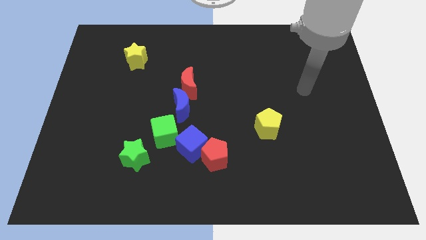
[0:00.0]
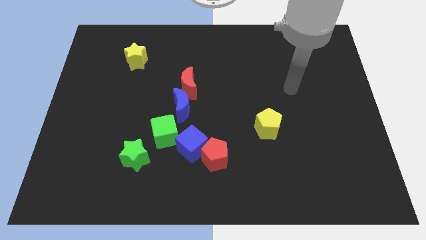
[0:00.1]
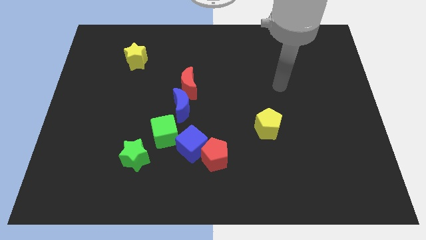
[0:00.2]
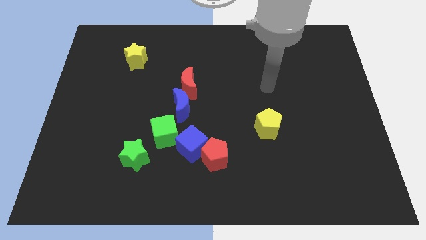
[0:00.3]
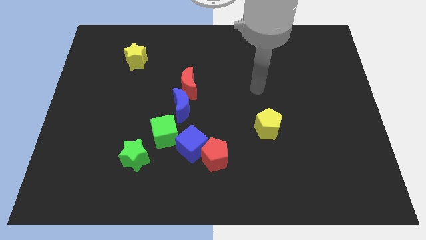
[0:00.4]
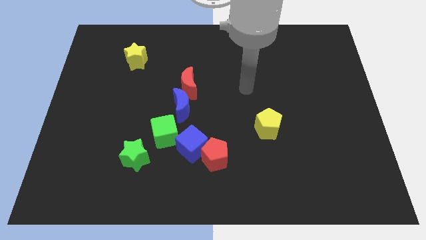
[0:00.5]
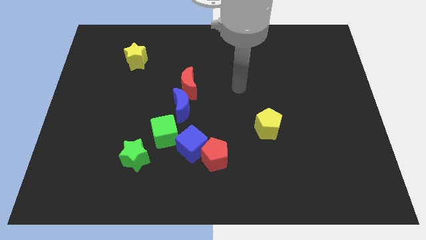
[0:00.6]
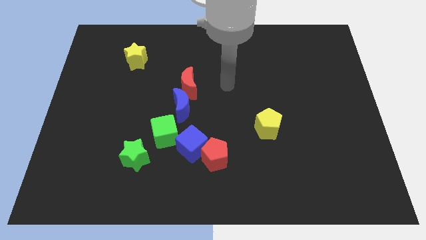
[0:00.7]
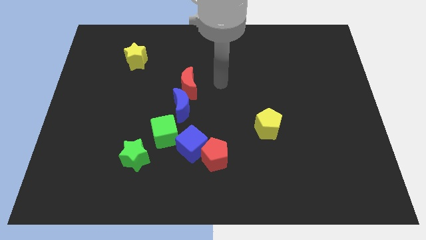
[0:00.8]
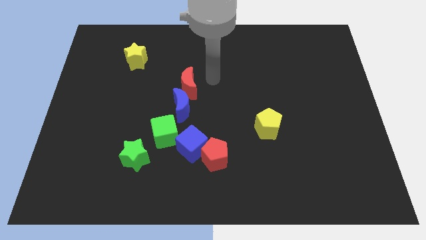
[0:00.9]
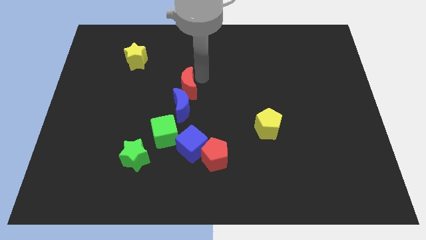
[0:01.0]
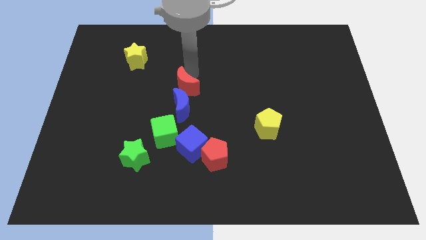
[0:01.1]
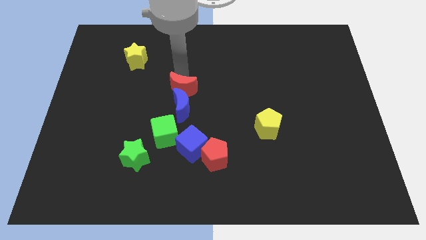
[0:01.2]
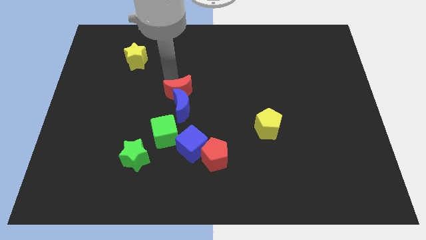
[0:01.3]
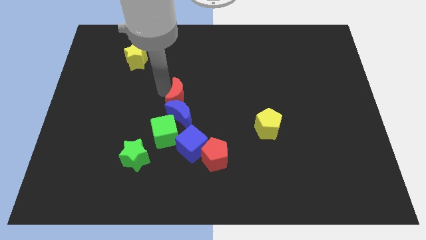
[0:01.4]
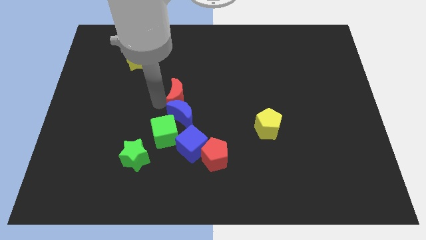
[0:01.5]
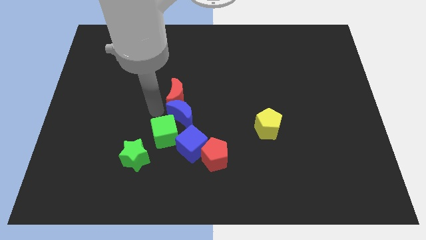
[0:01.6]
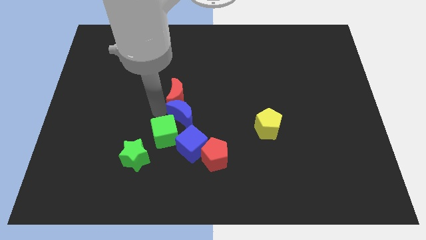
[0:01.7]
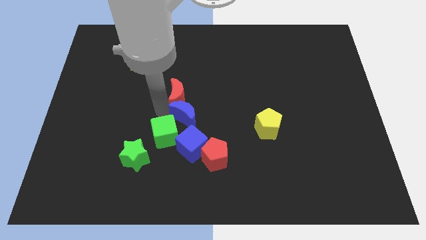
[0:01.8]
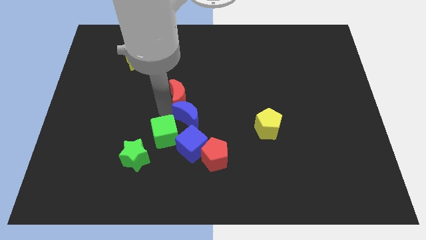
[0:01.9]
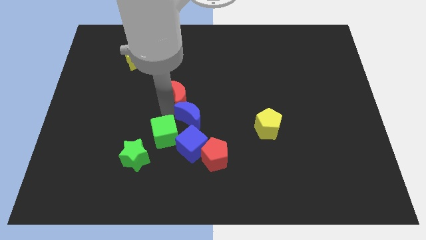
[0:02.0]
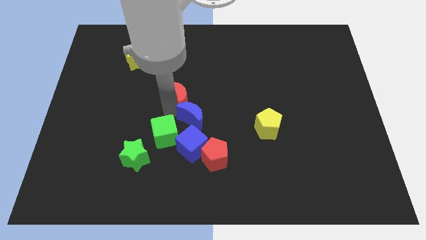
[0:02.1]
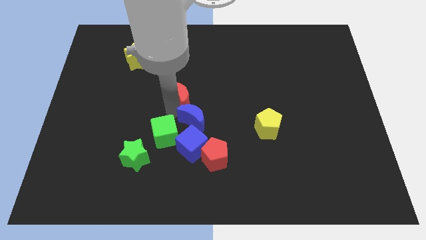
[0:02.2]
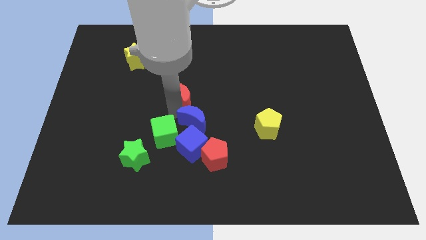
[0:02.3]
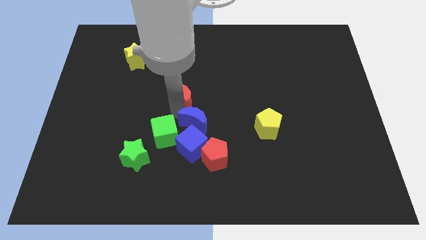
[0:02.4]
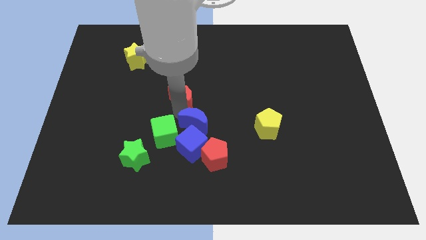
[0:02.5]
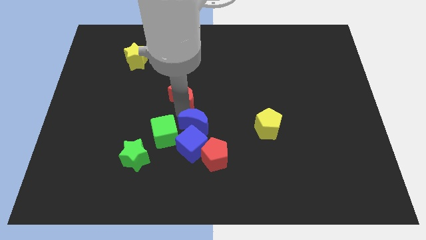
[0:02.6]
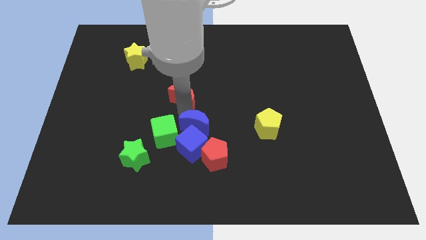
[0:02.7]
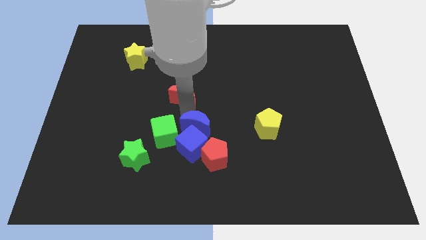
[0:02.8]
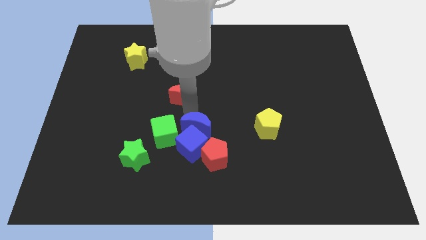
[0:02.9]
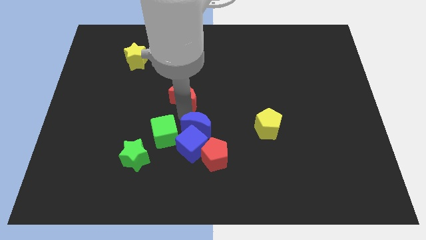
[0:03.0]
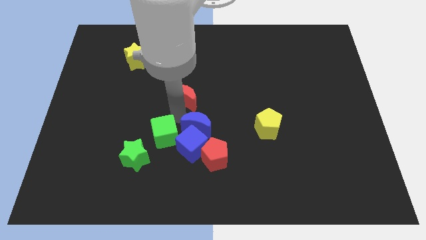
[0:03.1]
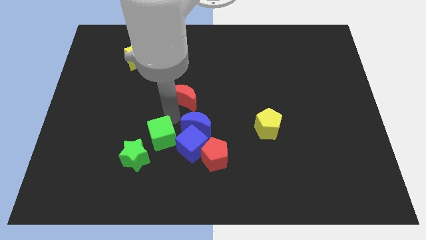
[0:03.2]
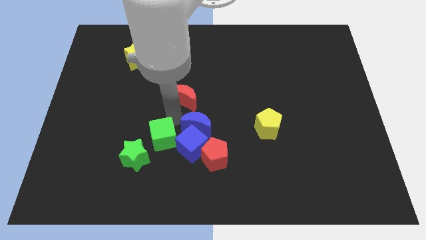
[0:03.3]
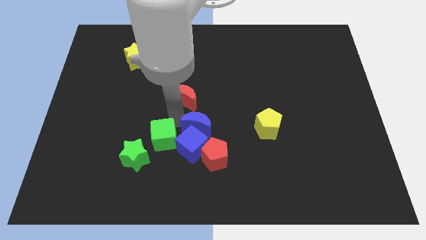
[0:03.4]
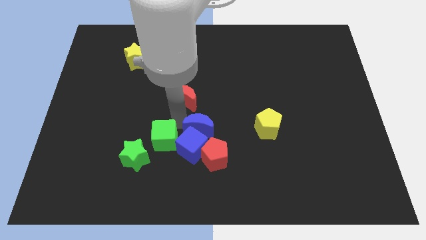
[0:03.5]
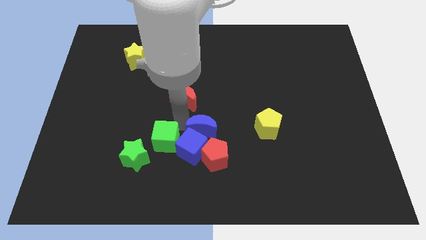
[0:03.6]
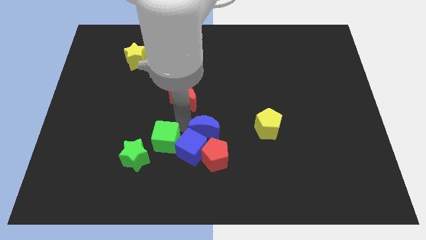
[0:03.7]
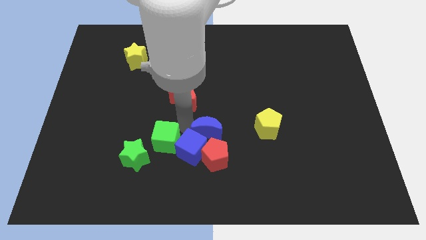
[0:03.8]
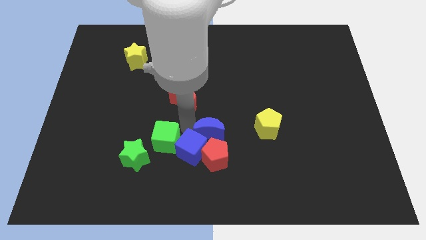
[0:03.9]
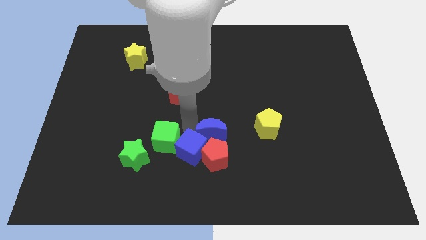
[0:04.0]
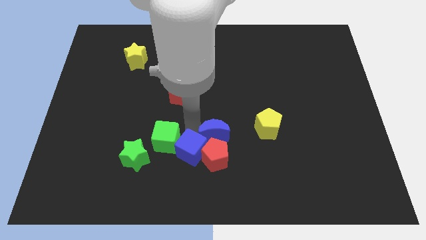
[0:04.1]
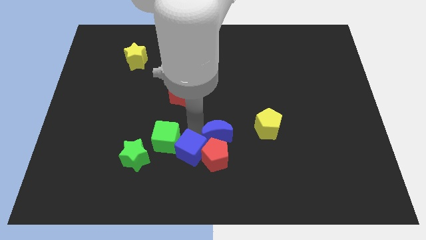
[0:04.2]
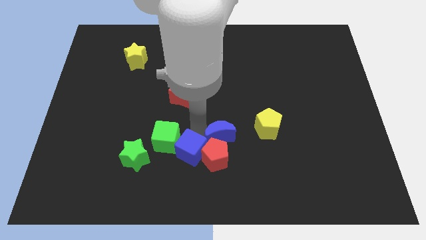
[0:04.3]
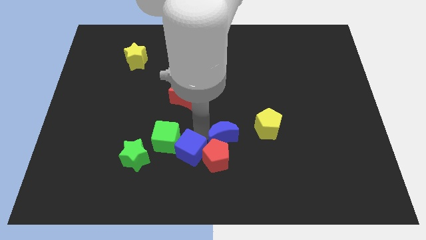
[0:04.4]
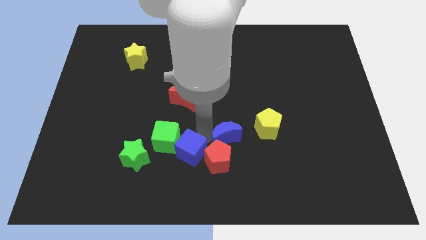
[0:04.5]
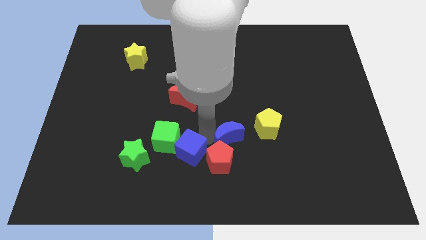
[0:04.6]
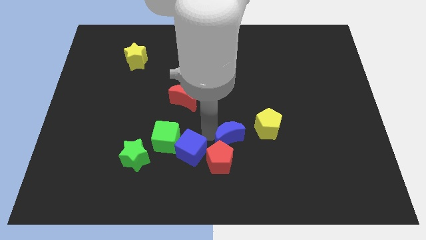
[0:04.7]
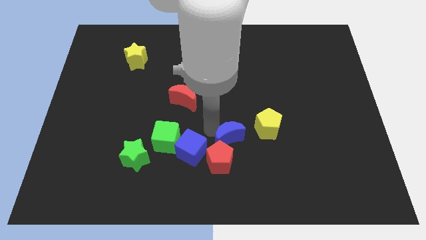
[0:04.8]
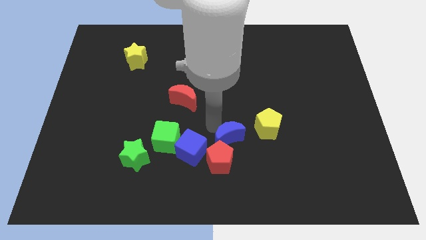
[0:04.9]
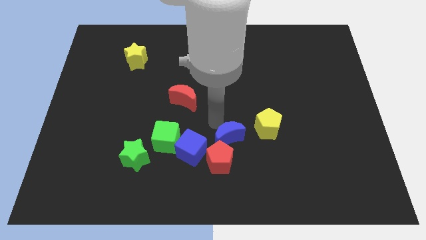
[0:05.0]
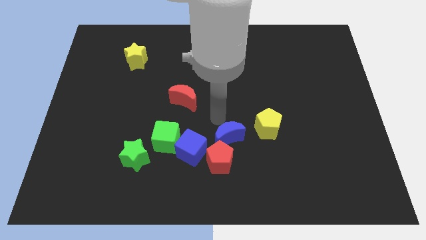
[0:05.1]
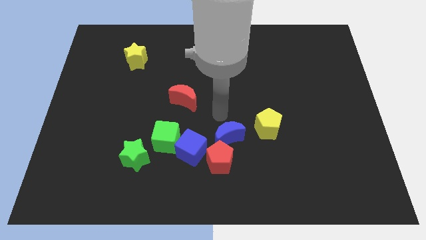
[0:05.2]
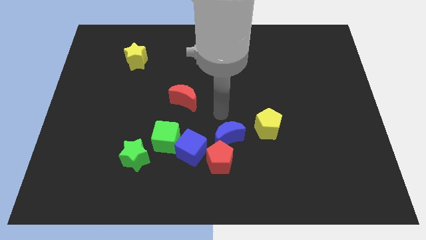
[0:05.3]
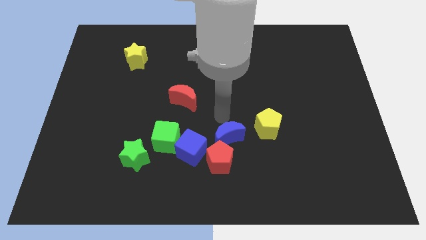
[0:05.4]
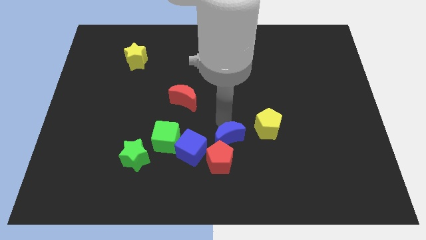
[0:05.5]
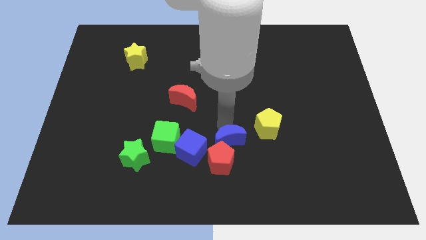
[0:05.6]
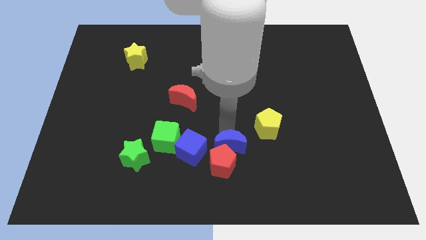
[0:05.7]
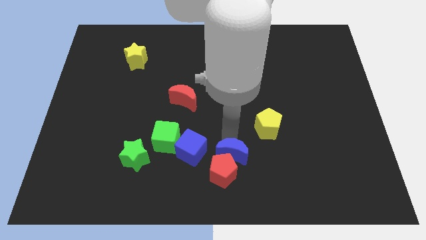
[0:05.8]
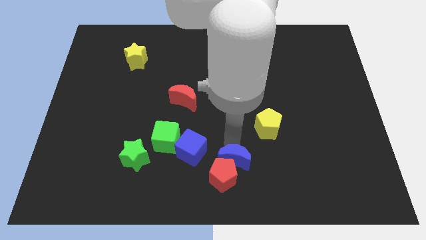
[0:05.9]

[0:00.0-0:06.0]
slide the blue moon to the bottom side

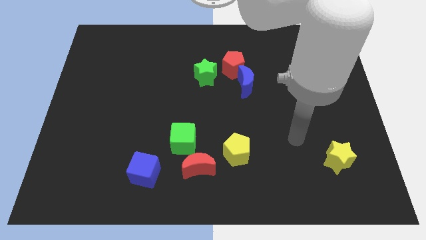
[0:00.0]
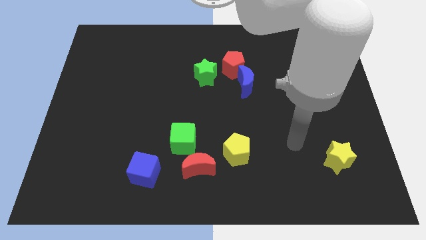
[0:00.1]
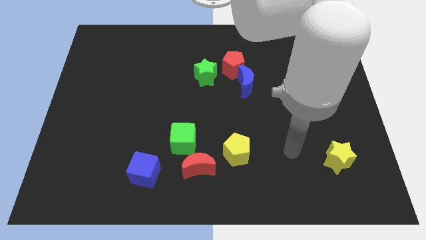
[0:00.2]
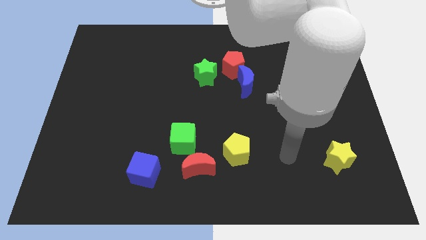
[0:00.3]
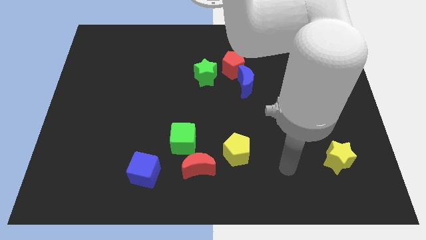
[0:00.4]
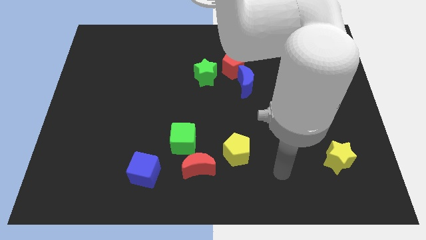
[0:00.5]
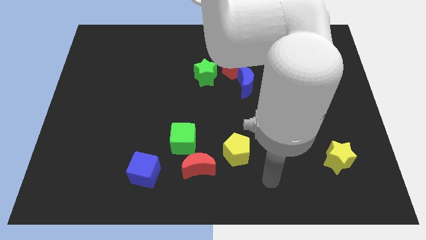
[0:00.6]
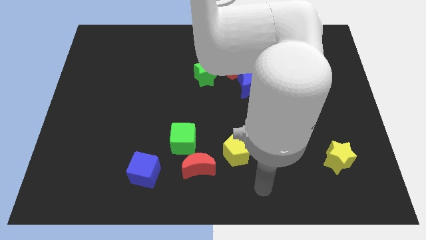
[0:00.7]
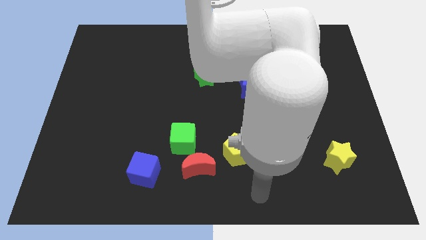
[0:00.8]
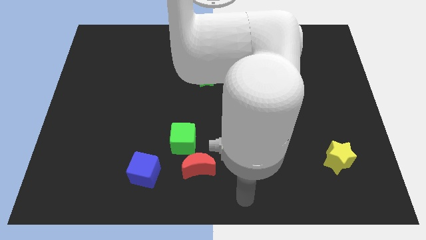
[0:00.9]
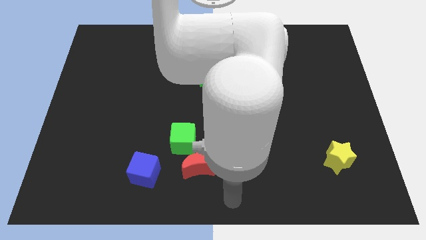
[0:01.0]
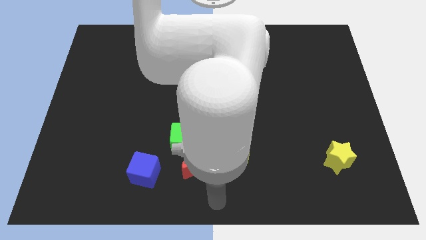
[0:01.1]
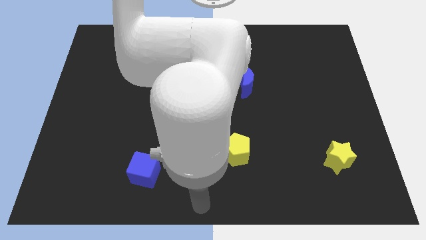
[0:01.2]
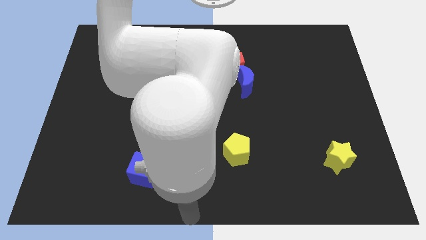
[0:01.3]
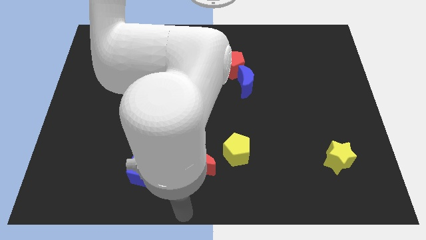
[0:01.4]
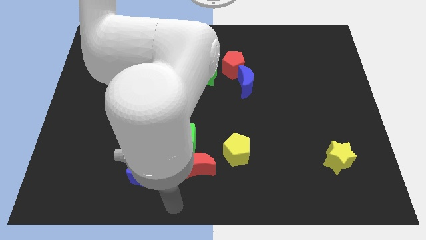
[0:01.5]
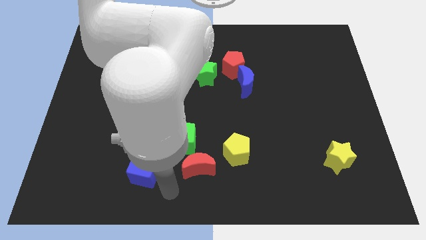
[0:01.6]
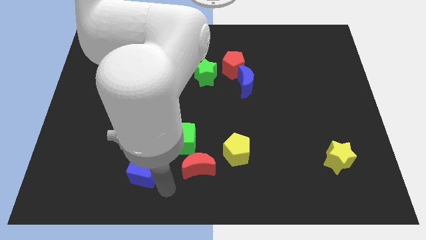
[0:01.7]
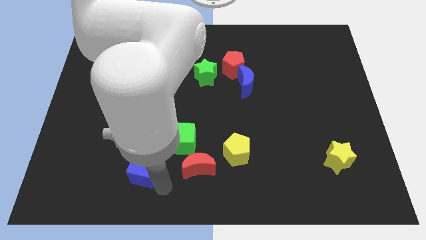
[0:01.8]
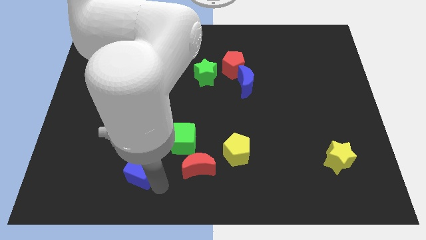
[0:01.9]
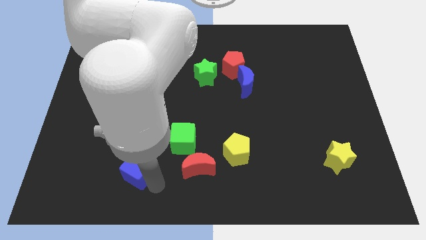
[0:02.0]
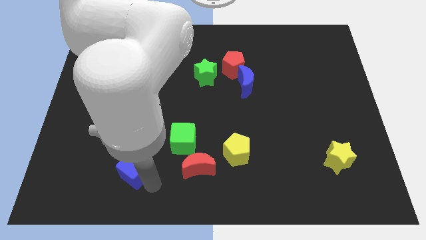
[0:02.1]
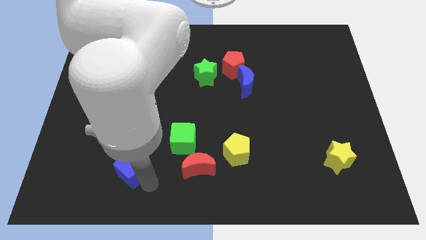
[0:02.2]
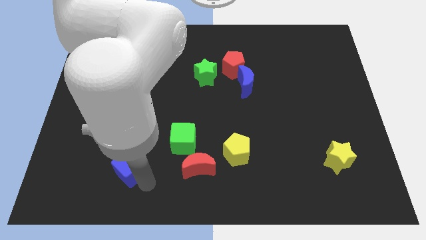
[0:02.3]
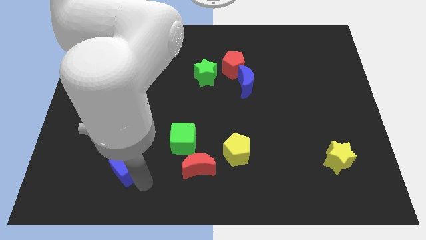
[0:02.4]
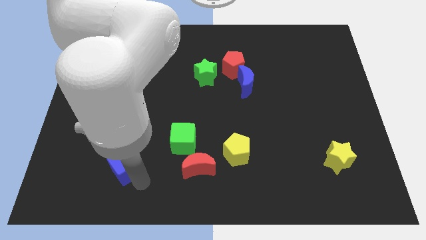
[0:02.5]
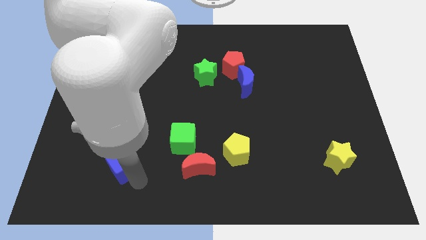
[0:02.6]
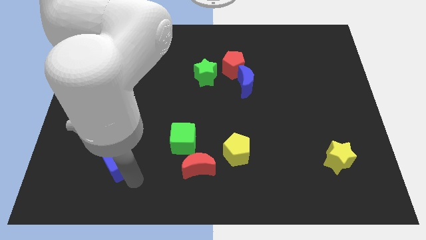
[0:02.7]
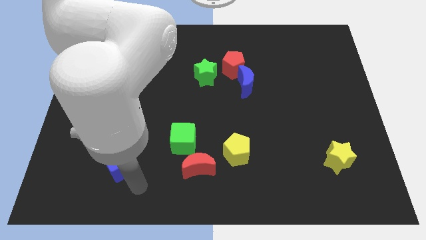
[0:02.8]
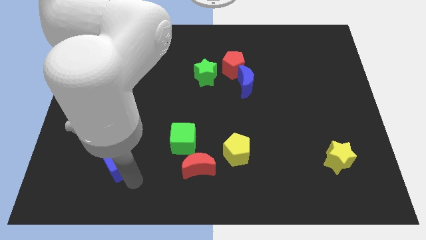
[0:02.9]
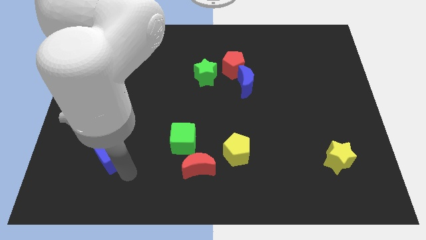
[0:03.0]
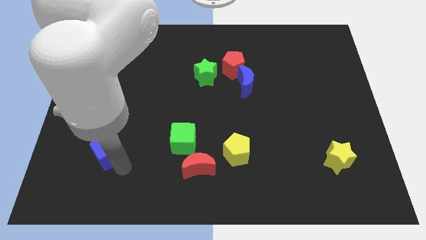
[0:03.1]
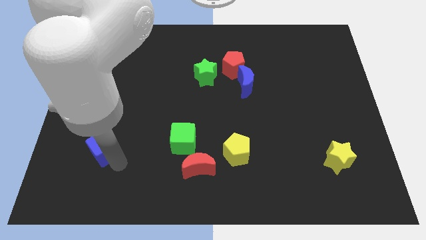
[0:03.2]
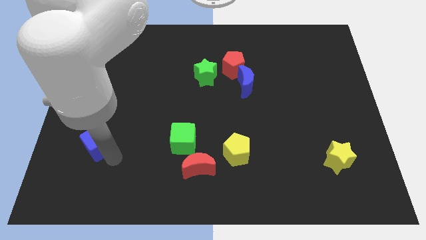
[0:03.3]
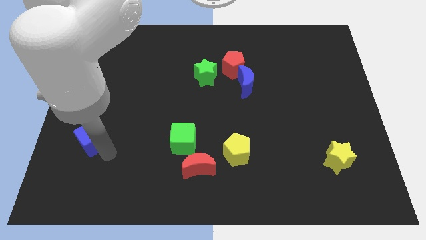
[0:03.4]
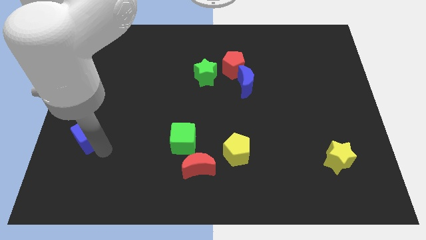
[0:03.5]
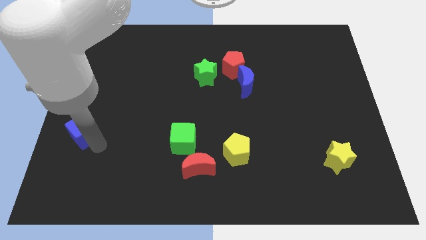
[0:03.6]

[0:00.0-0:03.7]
put the blue cube to the center left
